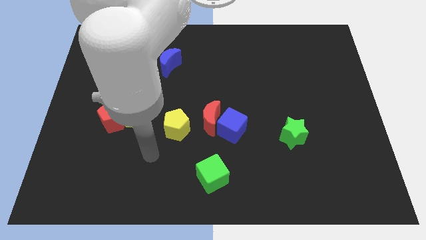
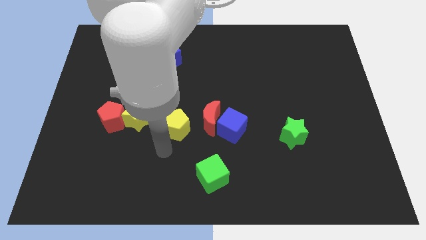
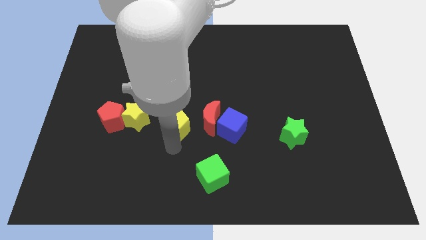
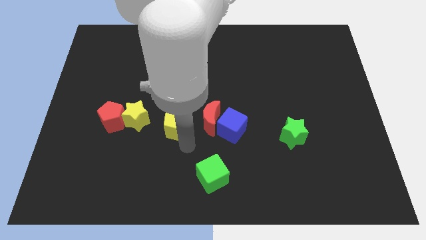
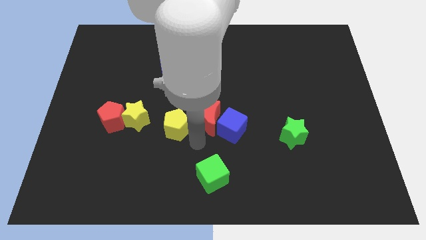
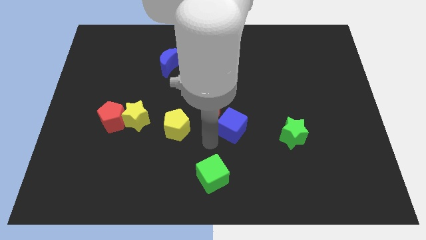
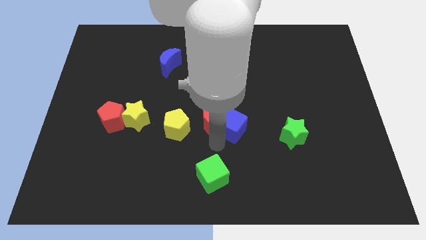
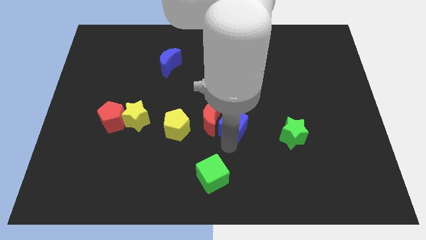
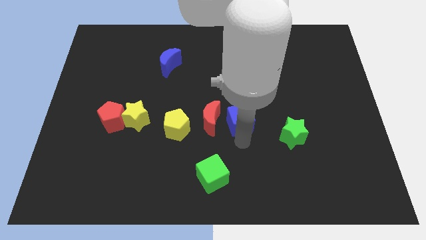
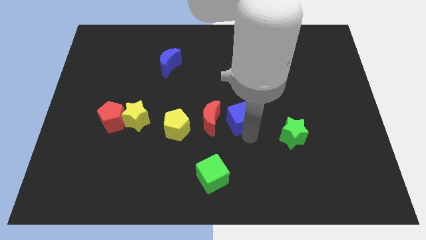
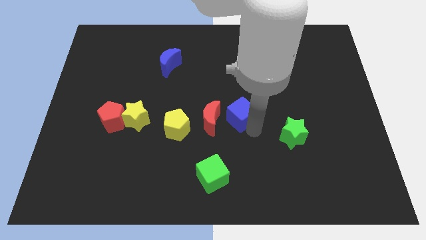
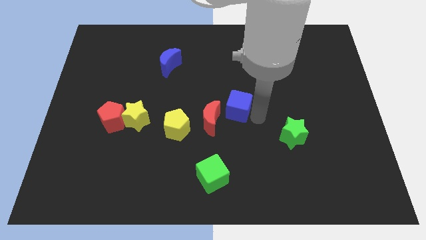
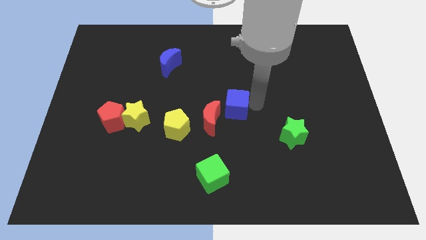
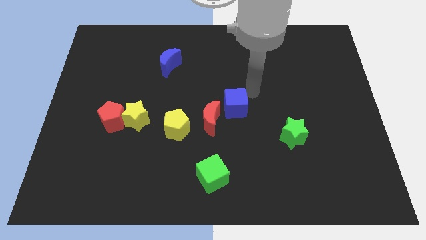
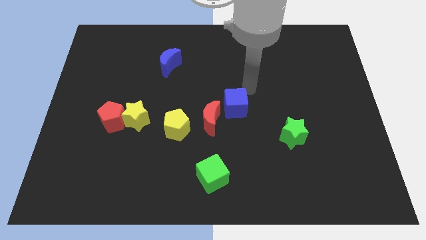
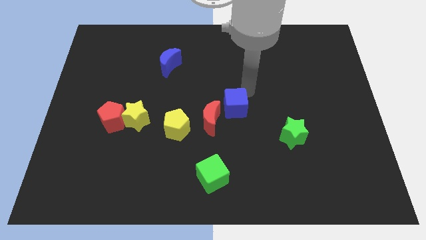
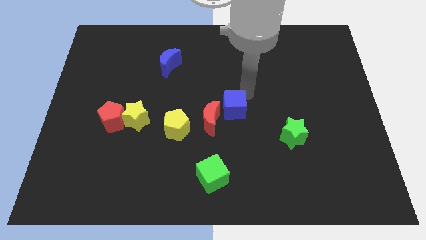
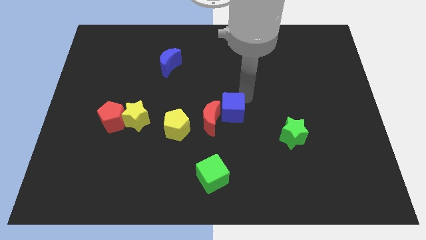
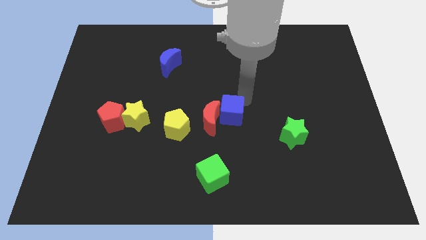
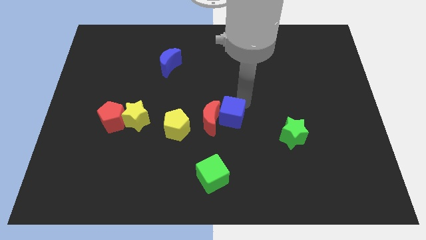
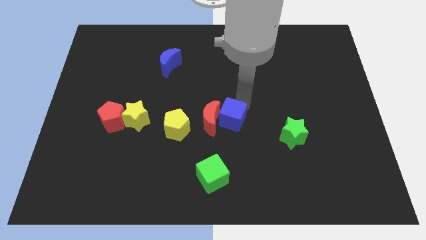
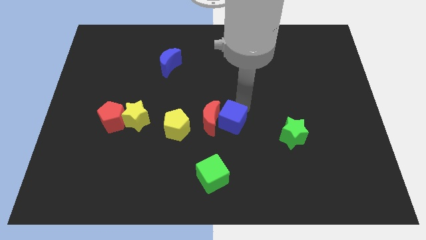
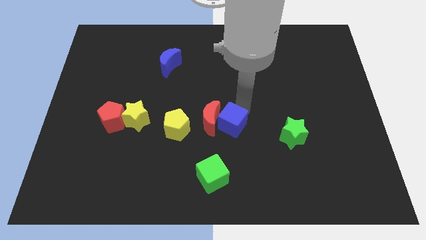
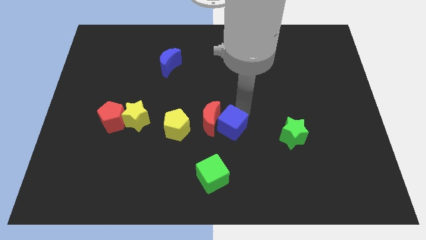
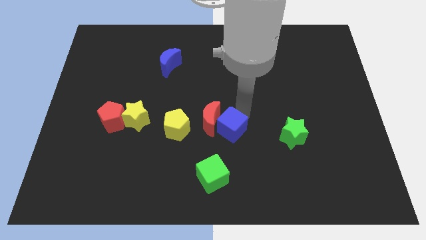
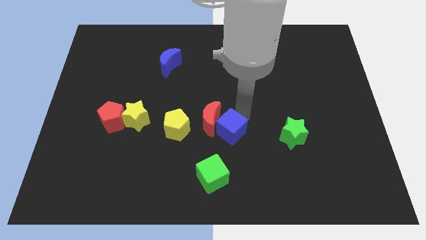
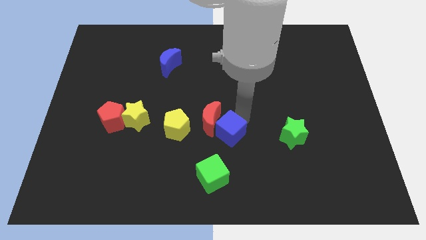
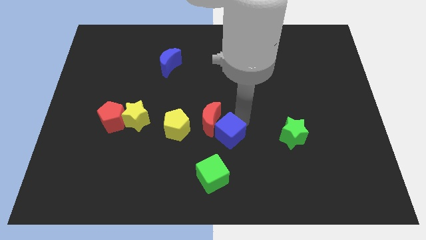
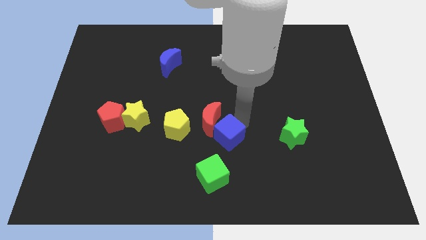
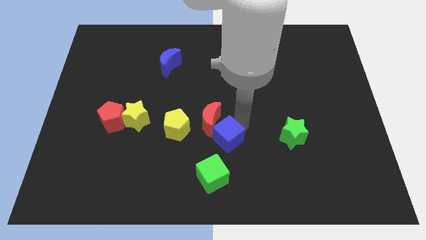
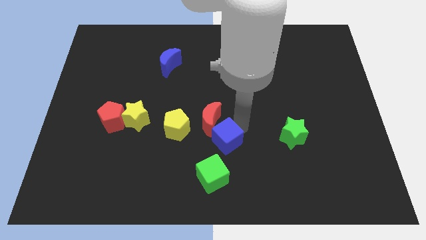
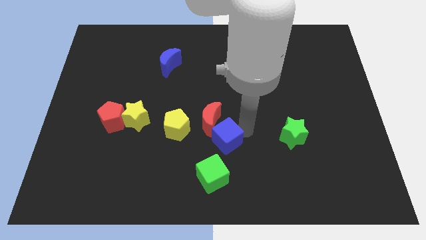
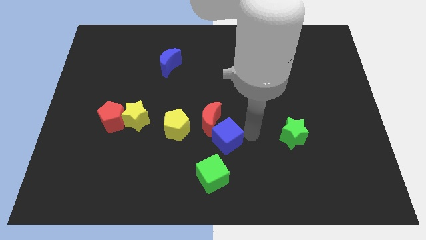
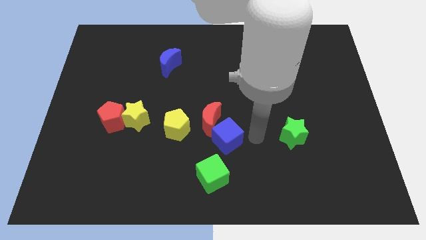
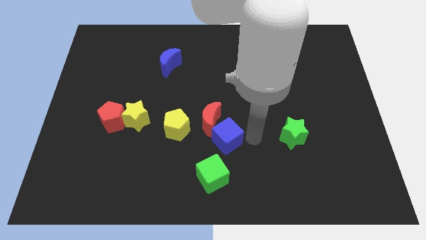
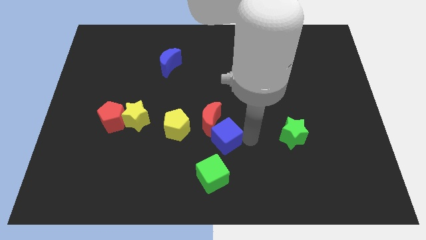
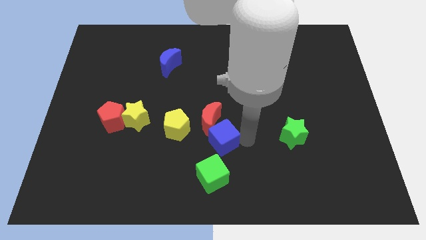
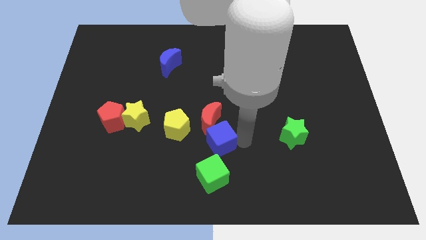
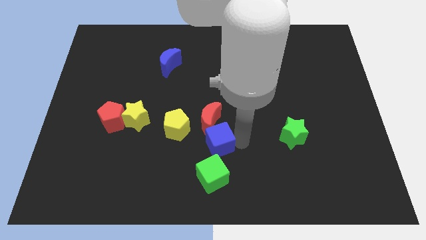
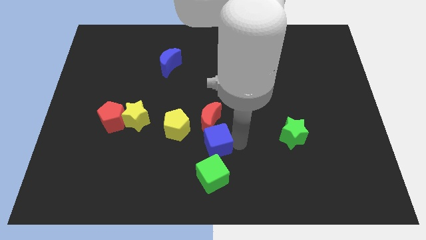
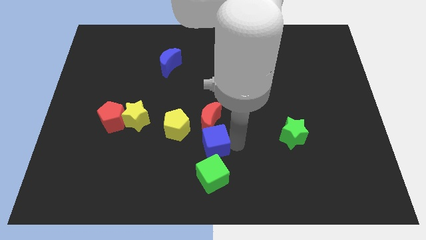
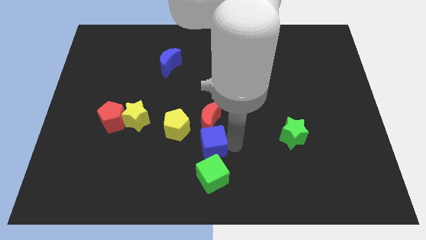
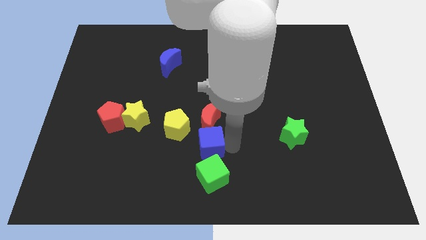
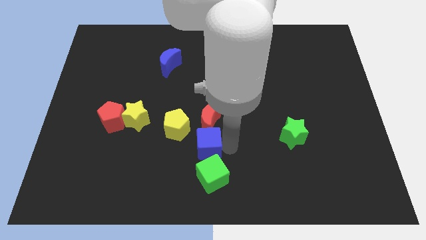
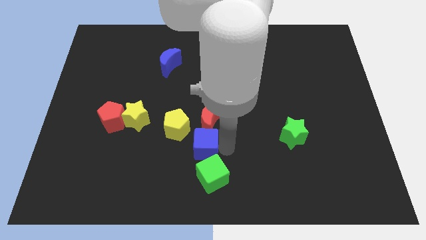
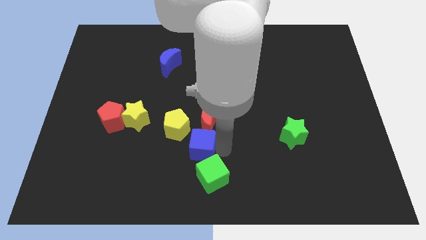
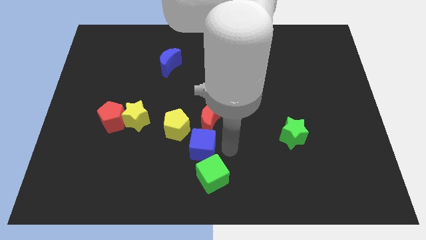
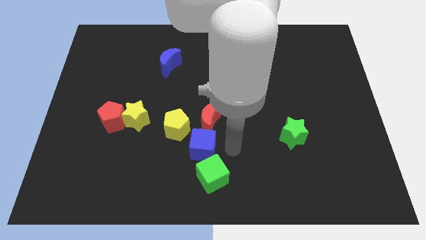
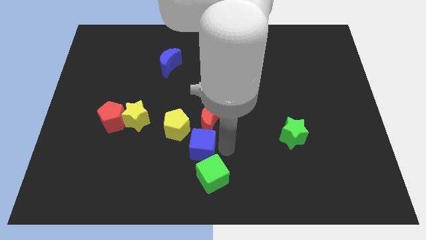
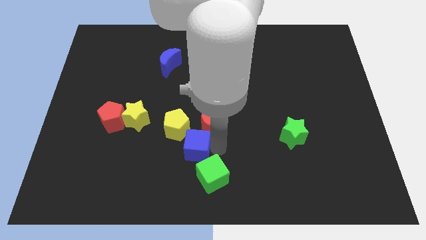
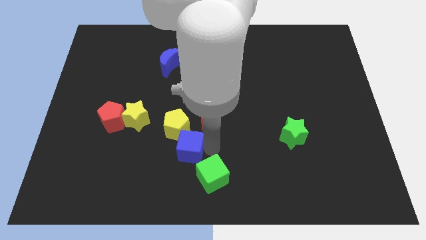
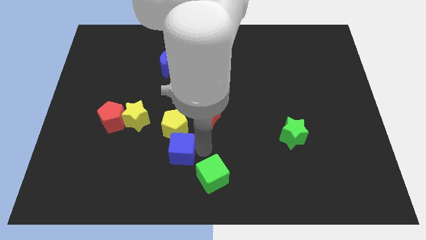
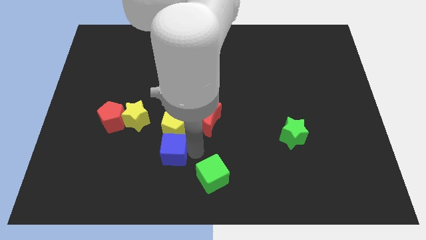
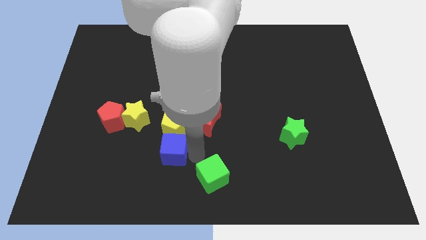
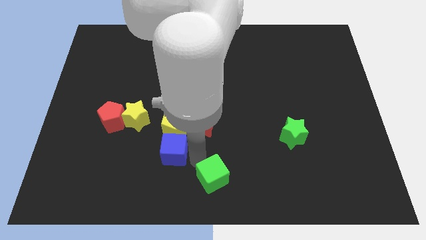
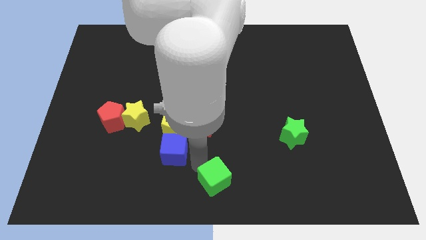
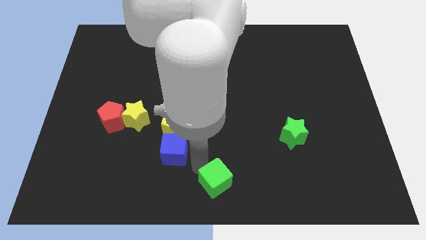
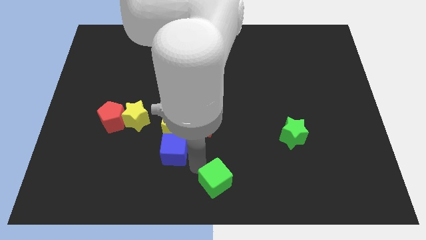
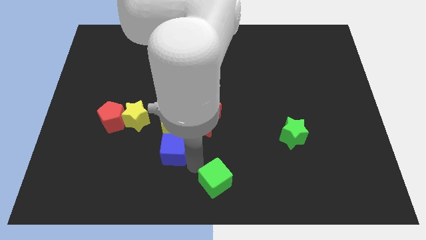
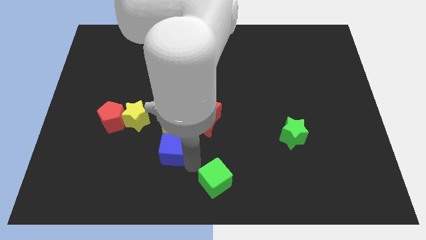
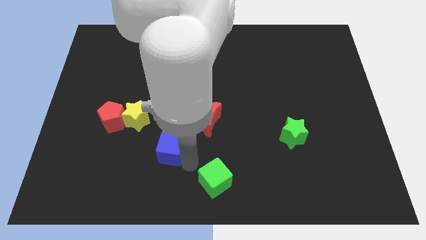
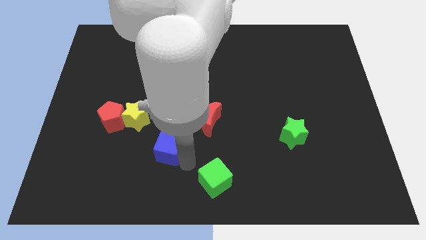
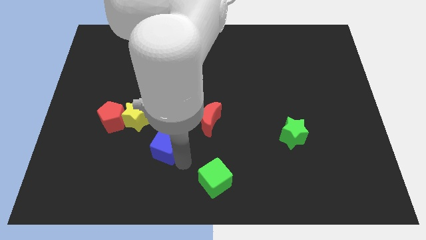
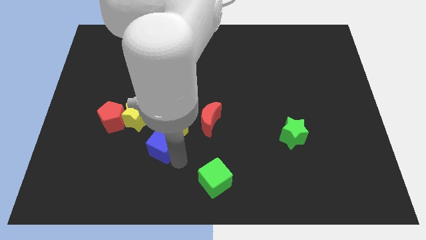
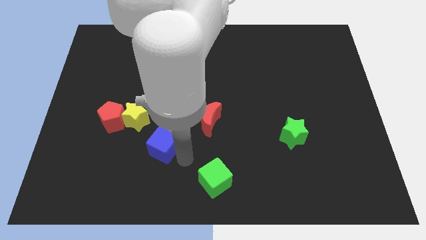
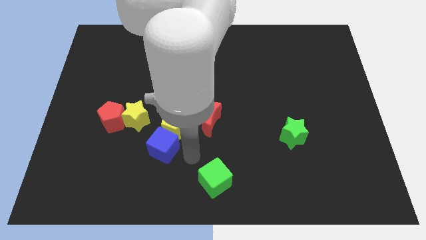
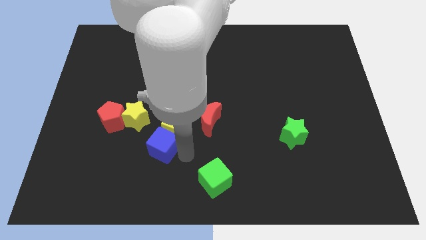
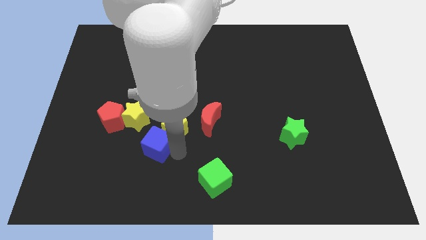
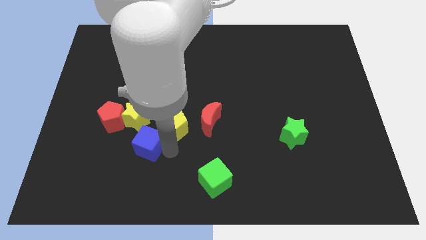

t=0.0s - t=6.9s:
slide the blue cube to the bottom right side of the red pentagon

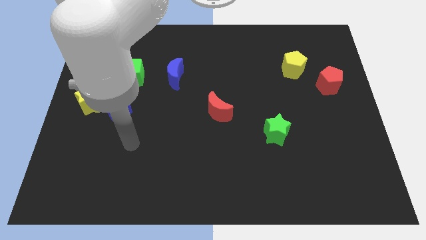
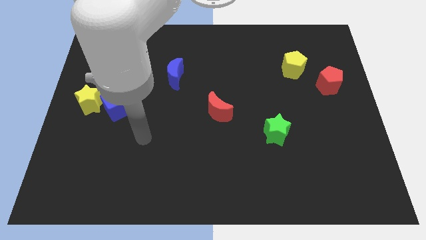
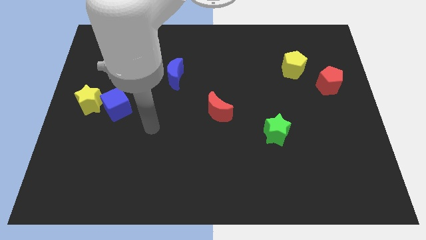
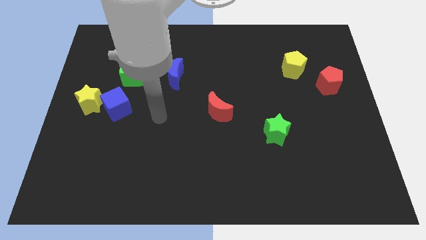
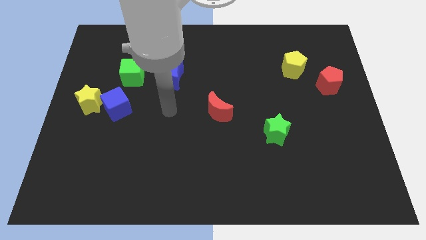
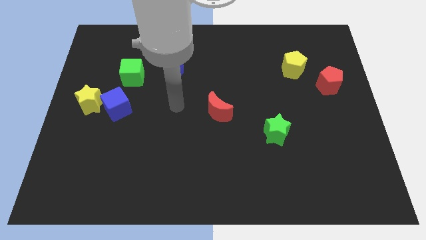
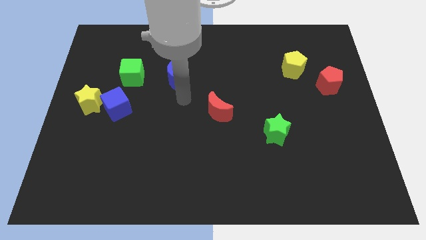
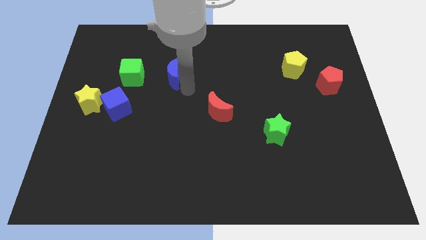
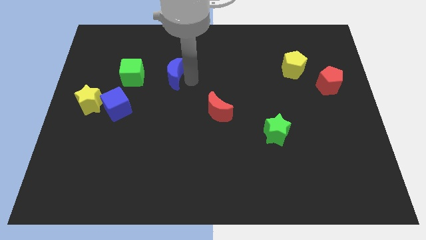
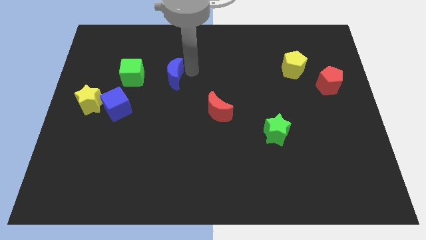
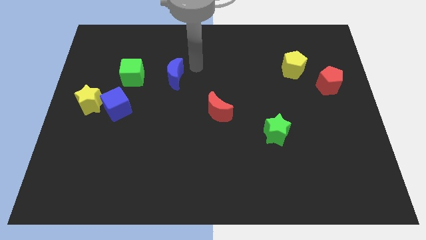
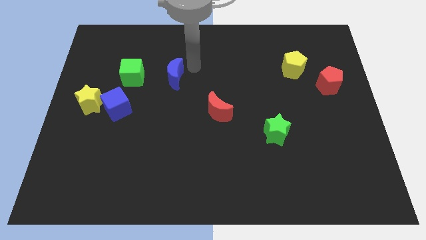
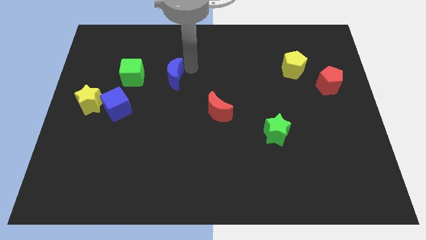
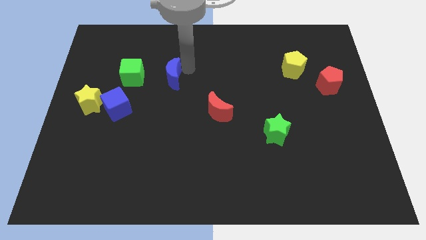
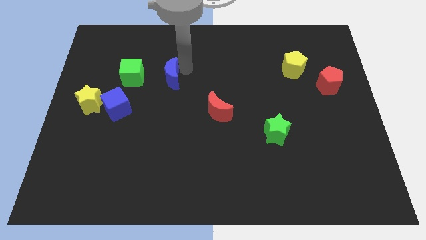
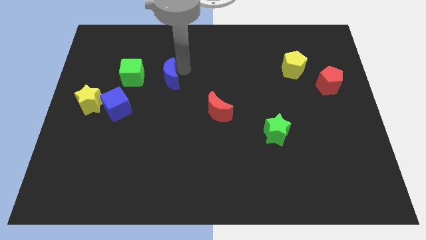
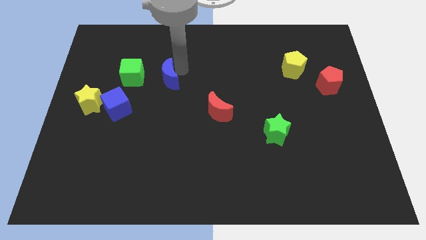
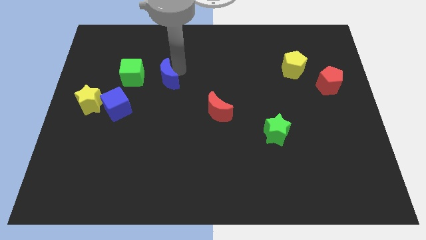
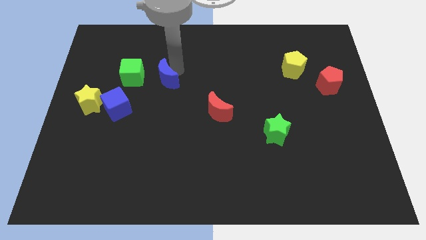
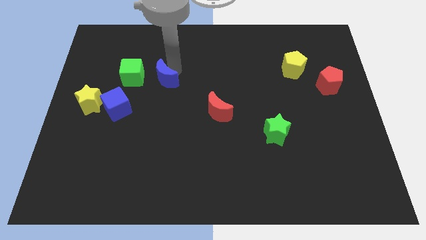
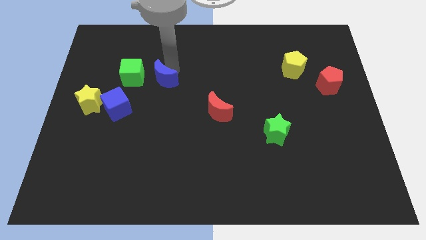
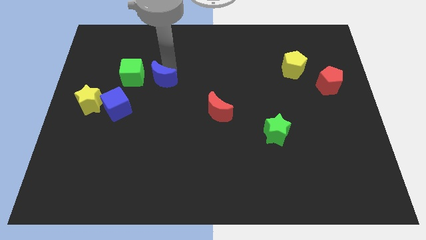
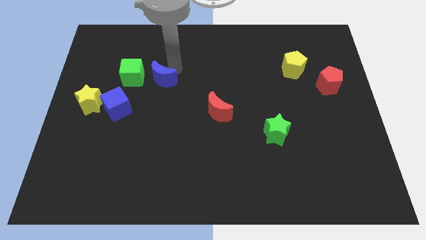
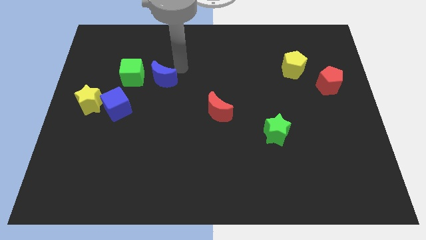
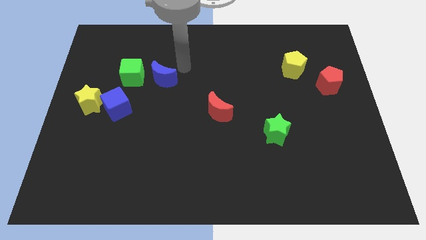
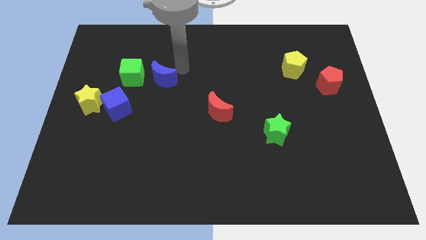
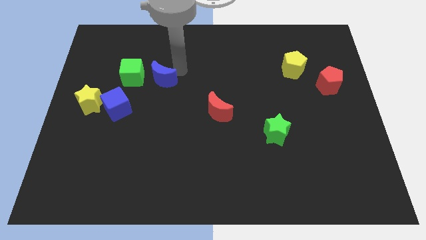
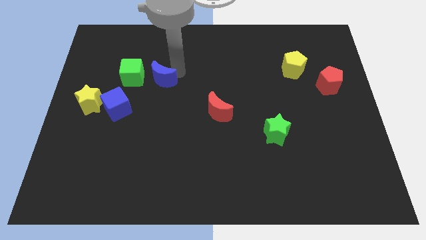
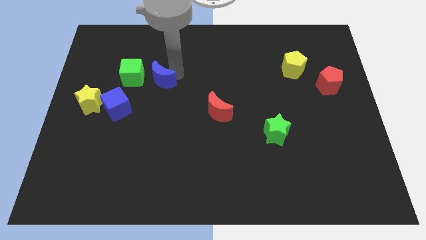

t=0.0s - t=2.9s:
put the blue moon to the top right side of the blue cube
